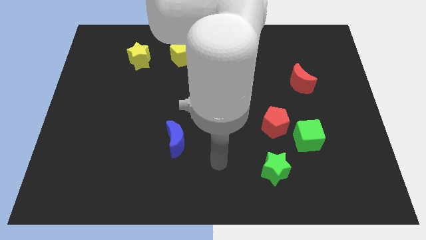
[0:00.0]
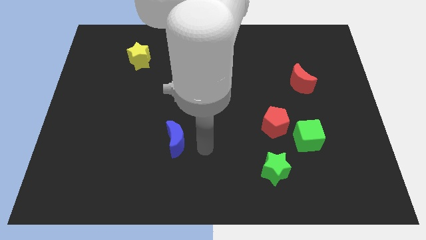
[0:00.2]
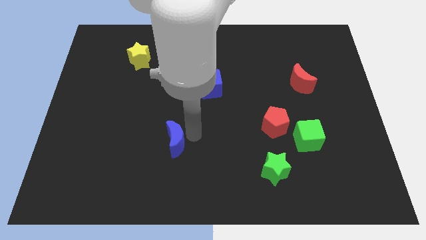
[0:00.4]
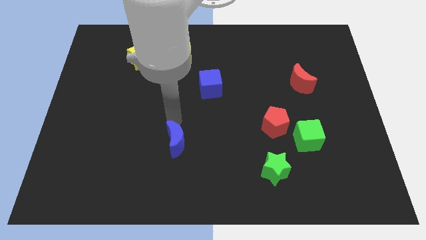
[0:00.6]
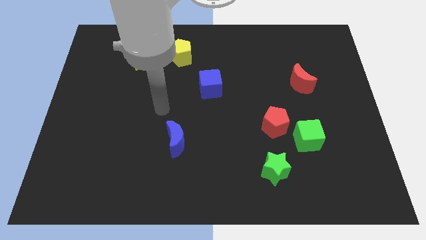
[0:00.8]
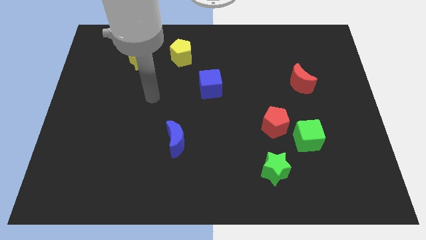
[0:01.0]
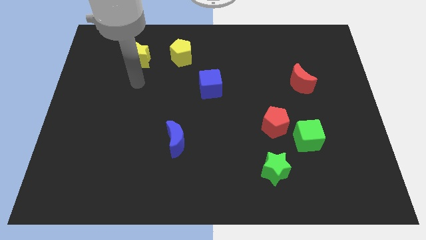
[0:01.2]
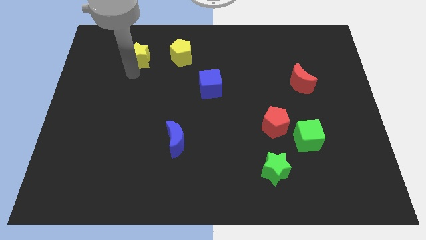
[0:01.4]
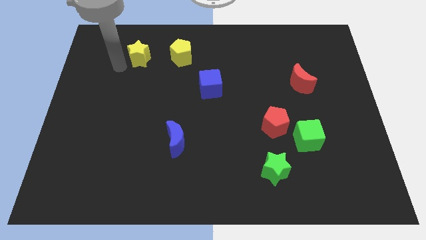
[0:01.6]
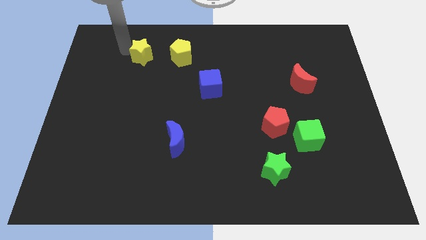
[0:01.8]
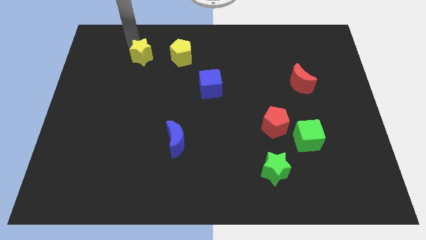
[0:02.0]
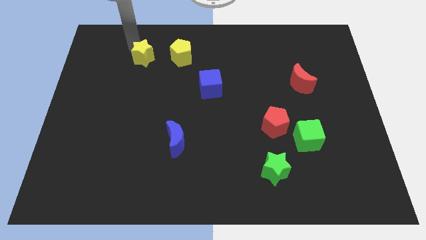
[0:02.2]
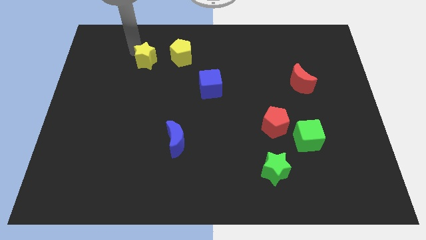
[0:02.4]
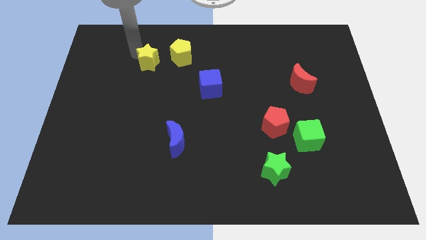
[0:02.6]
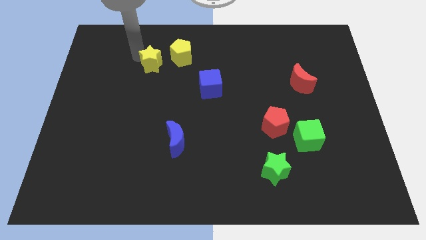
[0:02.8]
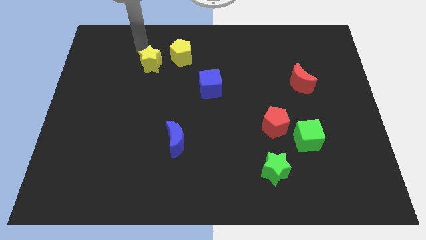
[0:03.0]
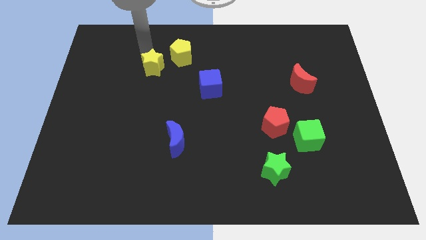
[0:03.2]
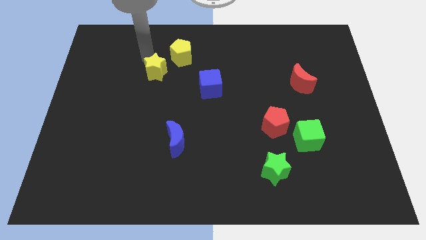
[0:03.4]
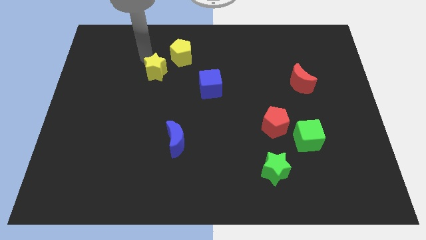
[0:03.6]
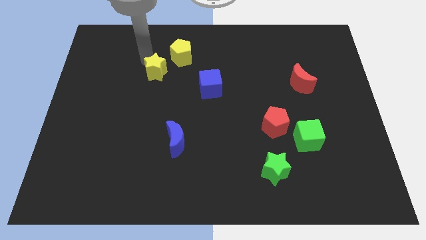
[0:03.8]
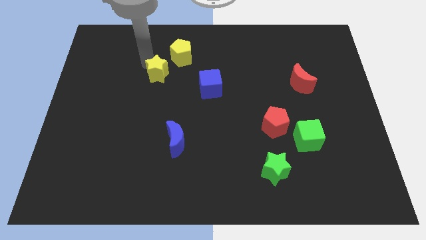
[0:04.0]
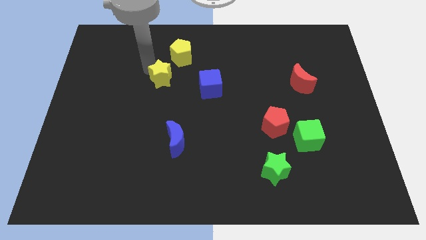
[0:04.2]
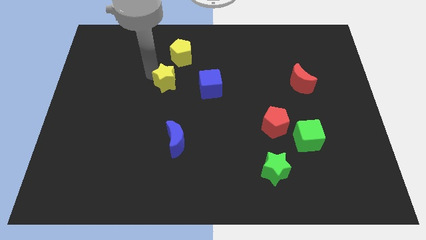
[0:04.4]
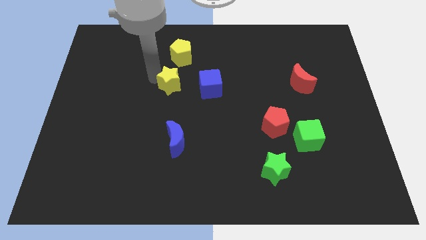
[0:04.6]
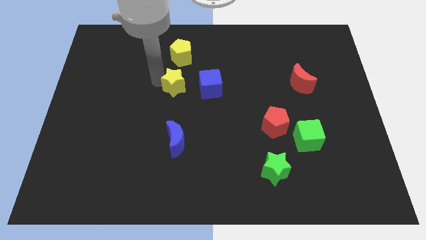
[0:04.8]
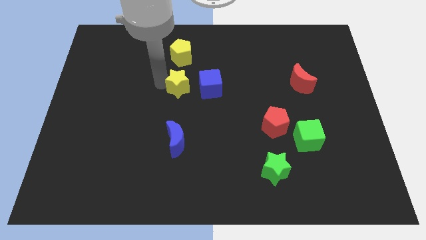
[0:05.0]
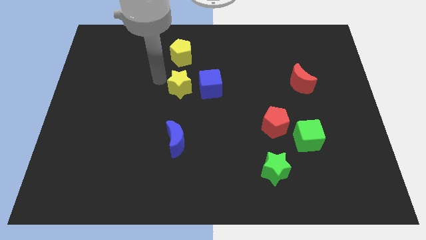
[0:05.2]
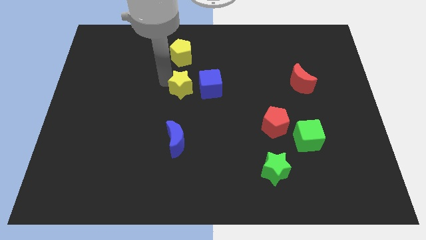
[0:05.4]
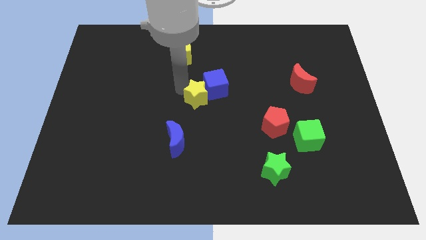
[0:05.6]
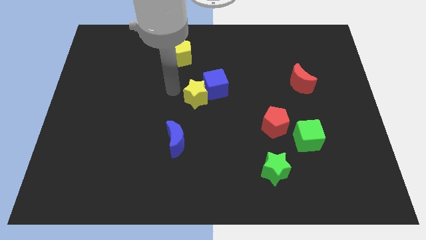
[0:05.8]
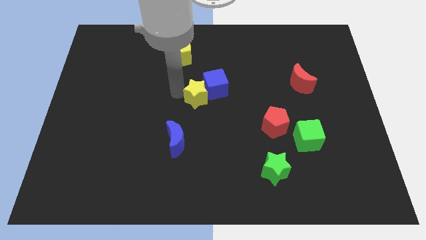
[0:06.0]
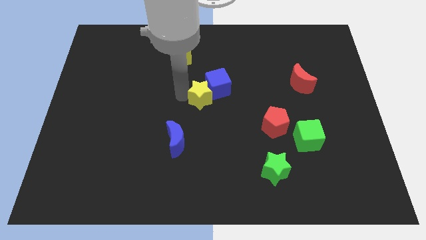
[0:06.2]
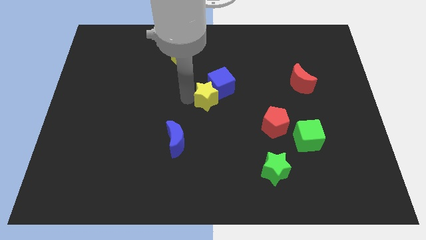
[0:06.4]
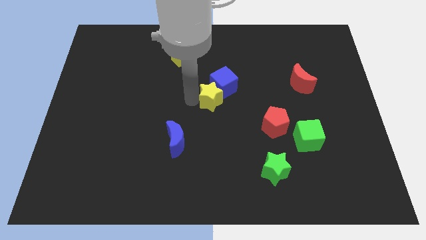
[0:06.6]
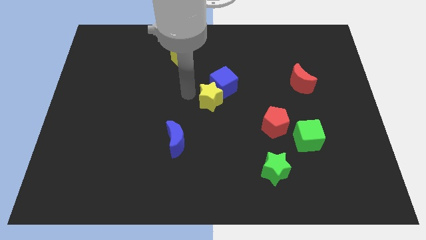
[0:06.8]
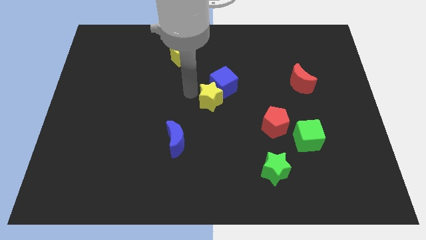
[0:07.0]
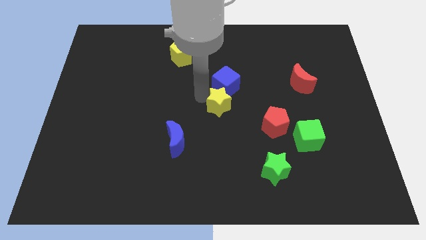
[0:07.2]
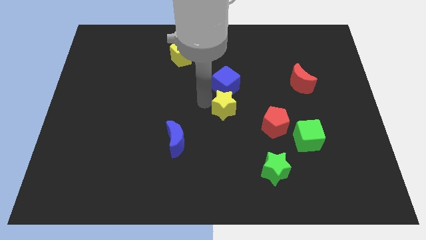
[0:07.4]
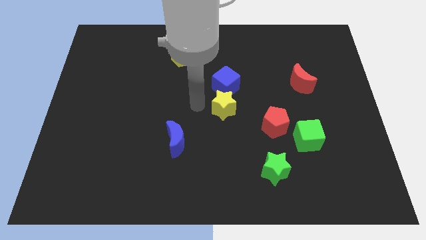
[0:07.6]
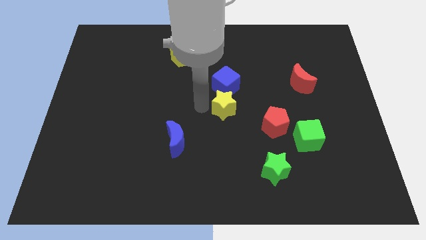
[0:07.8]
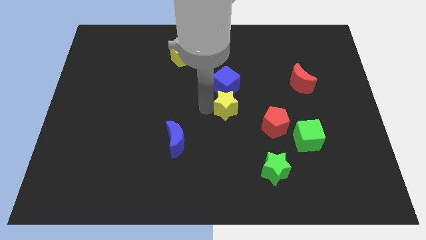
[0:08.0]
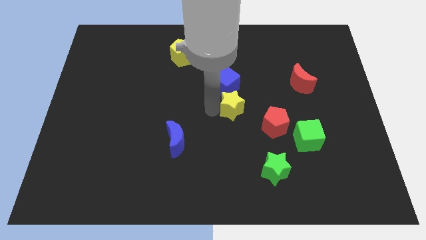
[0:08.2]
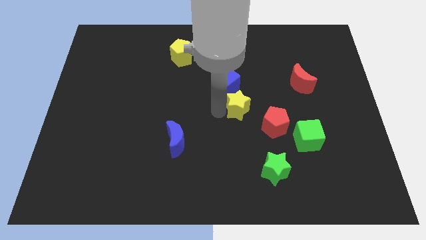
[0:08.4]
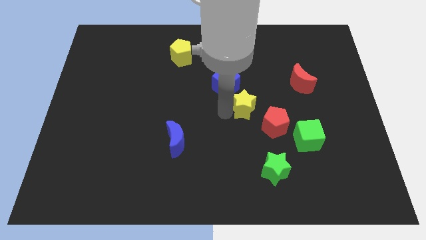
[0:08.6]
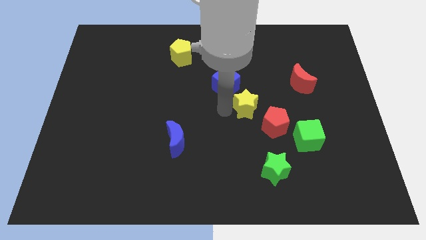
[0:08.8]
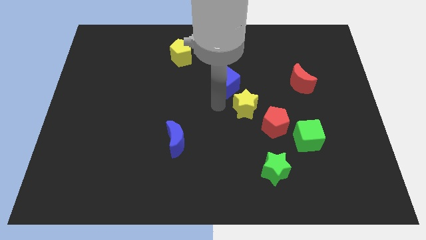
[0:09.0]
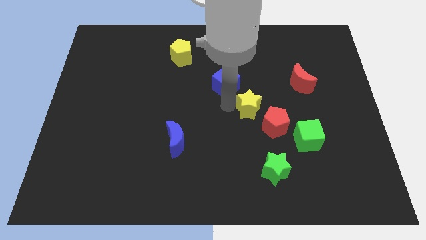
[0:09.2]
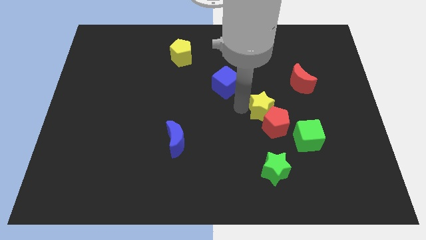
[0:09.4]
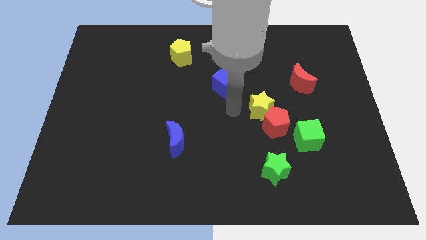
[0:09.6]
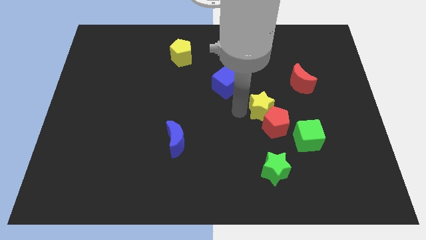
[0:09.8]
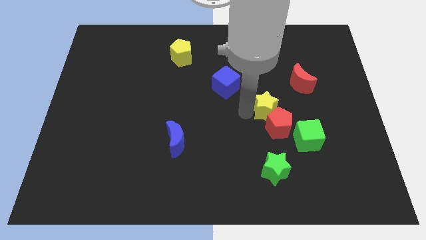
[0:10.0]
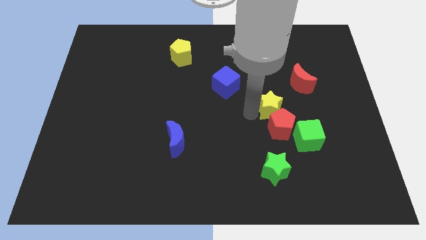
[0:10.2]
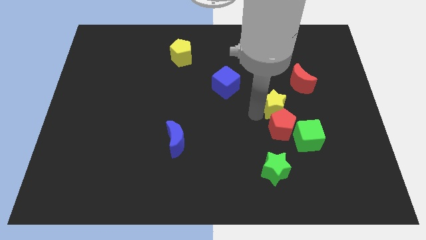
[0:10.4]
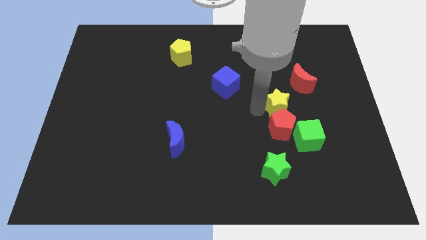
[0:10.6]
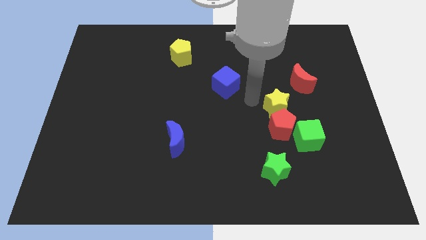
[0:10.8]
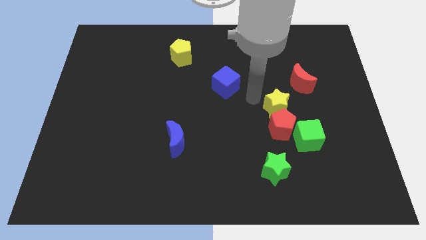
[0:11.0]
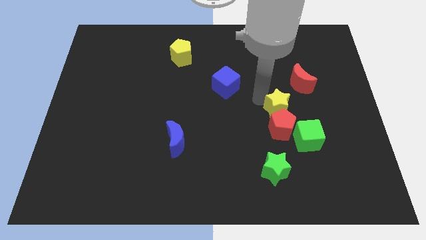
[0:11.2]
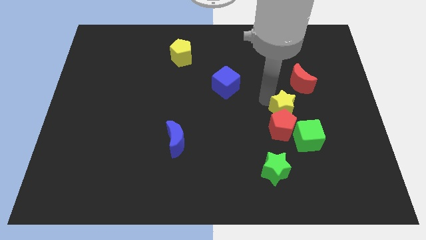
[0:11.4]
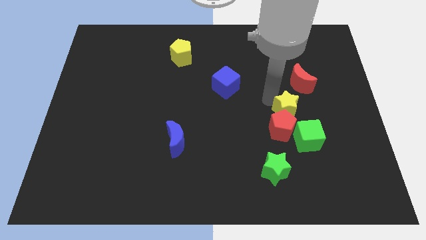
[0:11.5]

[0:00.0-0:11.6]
put the yellow star to the bottom side of the red moon
